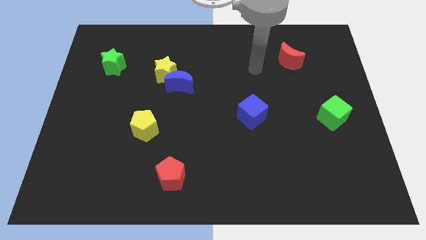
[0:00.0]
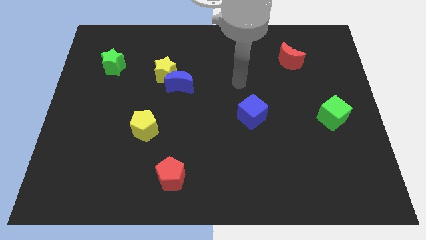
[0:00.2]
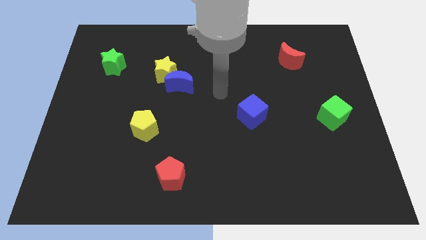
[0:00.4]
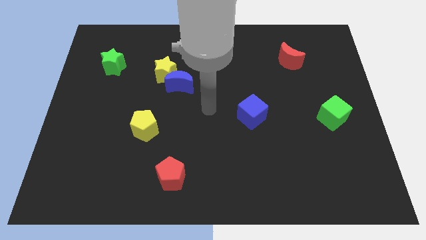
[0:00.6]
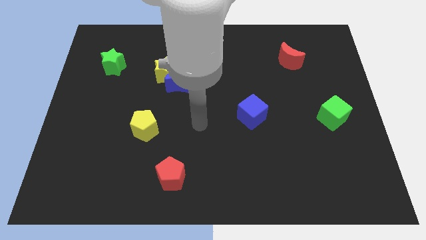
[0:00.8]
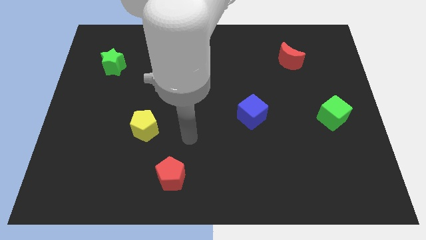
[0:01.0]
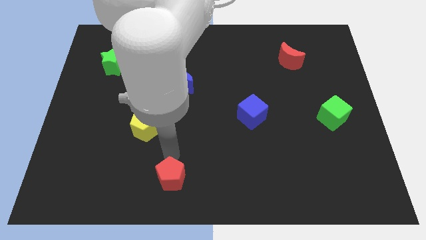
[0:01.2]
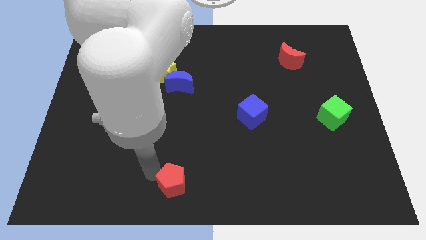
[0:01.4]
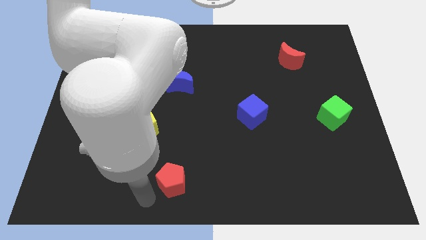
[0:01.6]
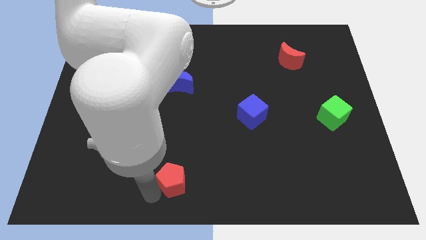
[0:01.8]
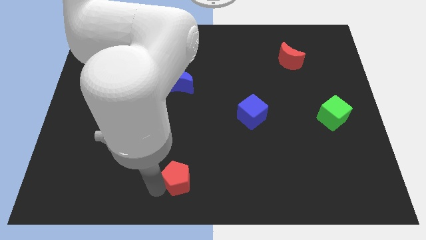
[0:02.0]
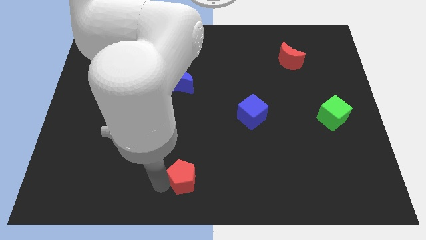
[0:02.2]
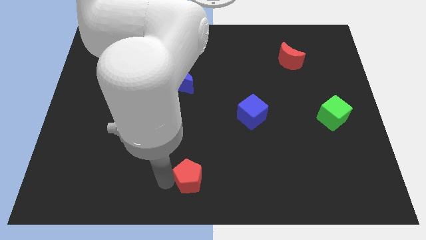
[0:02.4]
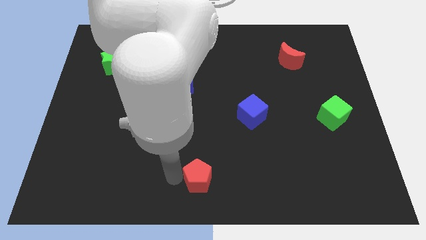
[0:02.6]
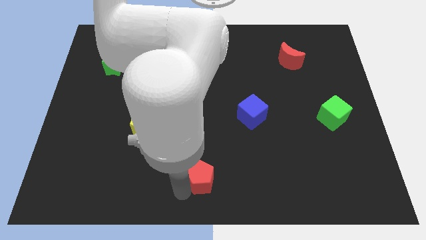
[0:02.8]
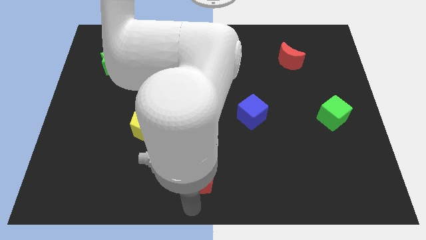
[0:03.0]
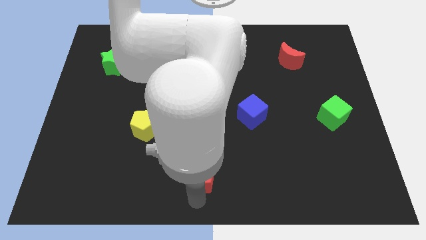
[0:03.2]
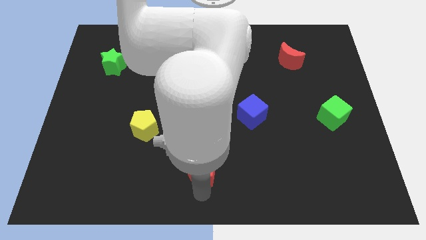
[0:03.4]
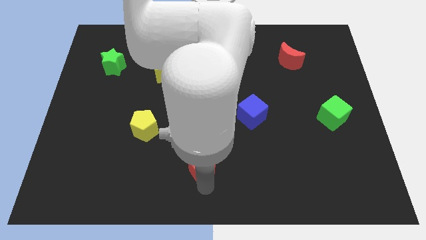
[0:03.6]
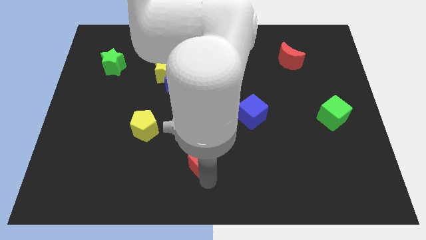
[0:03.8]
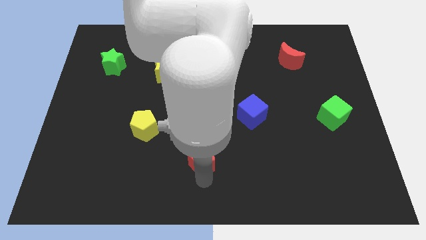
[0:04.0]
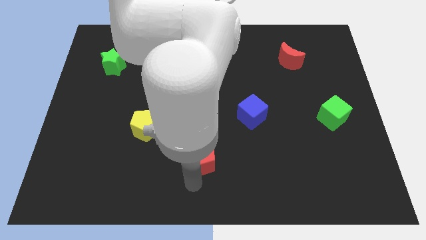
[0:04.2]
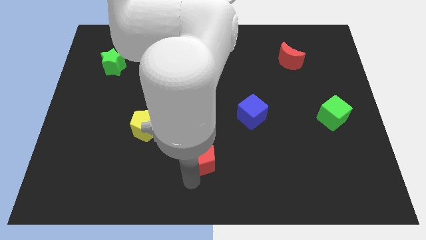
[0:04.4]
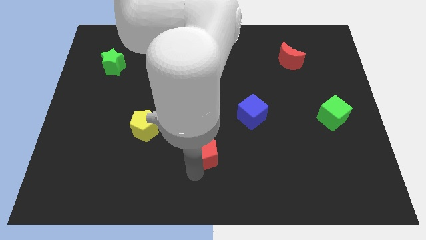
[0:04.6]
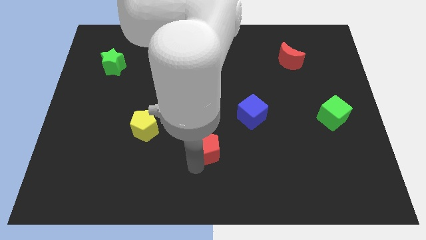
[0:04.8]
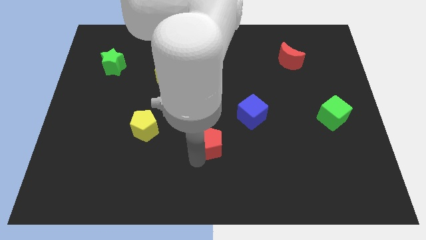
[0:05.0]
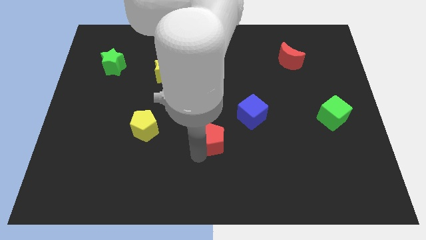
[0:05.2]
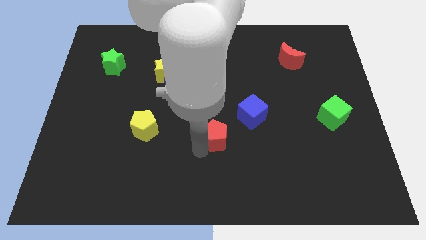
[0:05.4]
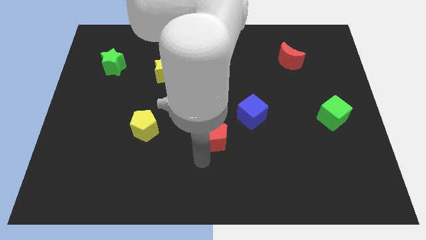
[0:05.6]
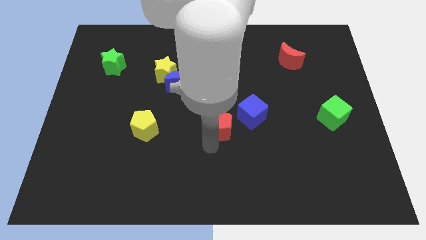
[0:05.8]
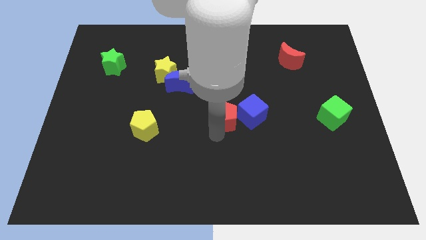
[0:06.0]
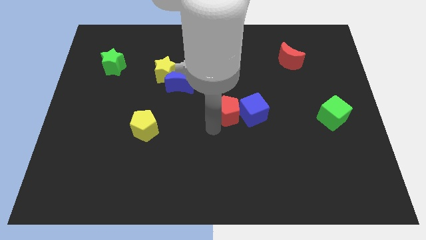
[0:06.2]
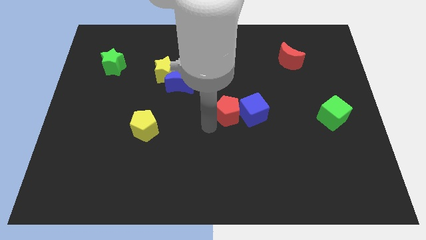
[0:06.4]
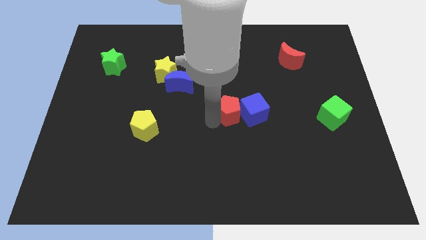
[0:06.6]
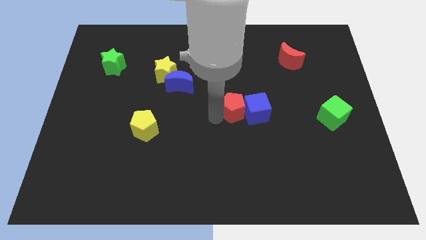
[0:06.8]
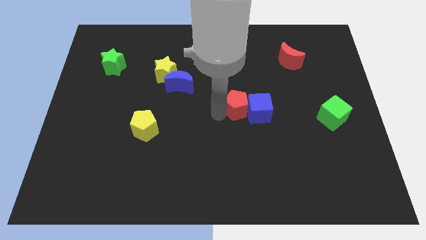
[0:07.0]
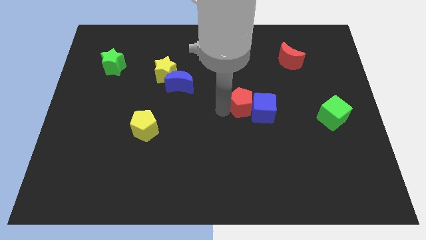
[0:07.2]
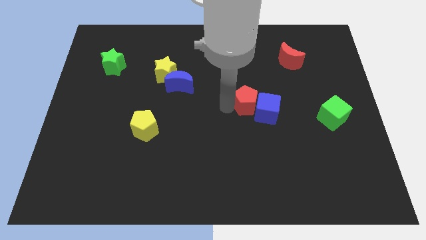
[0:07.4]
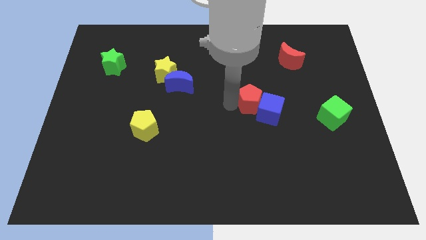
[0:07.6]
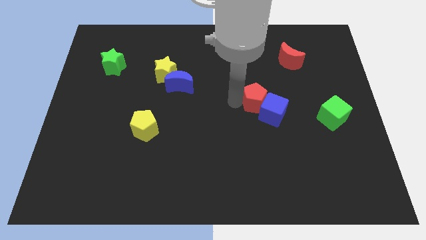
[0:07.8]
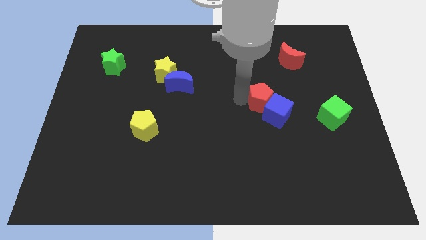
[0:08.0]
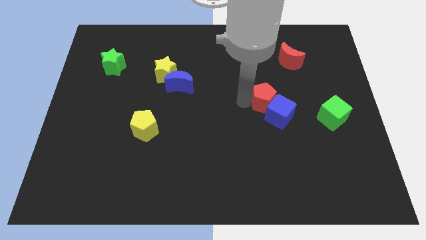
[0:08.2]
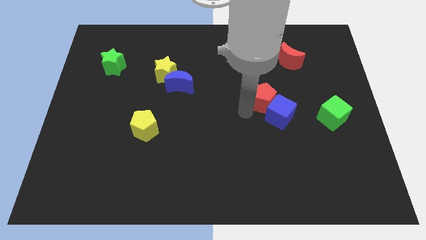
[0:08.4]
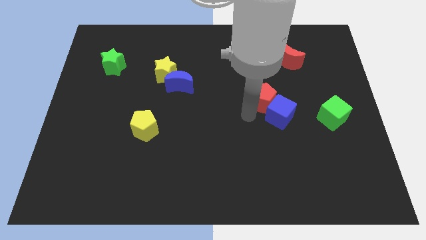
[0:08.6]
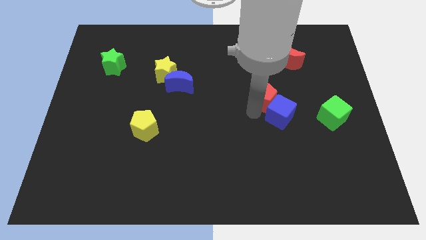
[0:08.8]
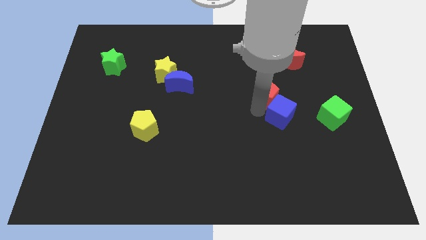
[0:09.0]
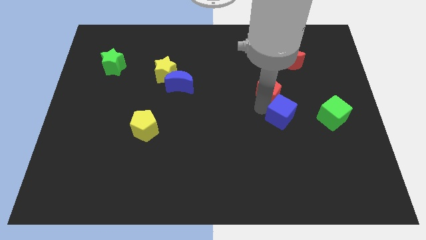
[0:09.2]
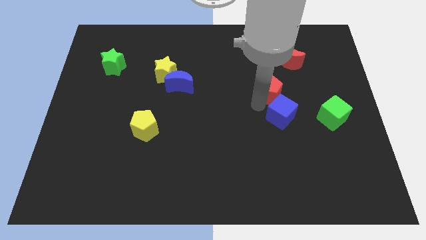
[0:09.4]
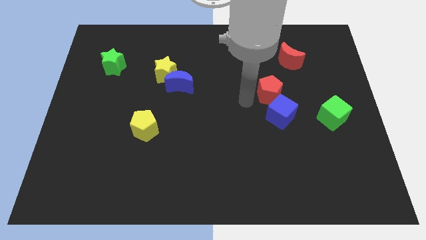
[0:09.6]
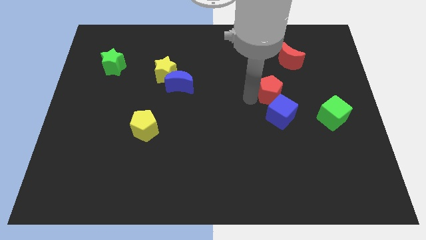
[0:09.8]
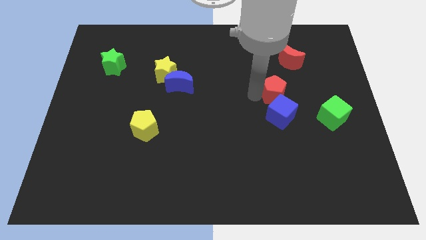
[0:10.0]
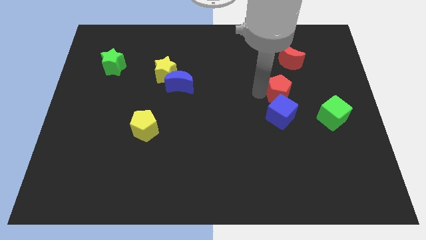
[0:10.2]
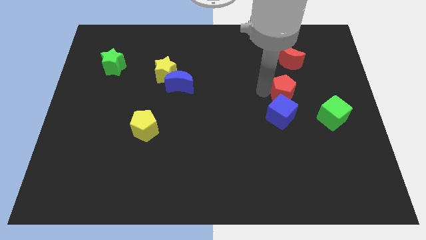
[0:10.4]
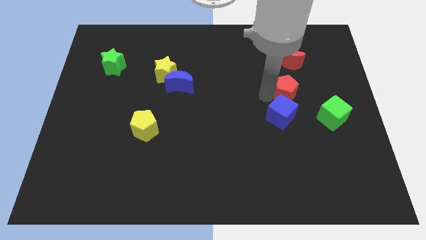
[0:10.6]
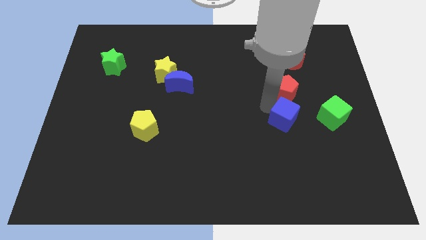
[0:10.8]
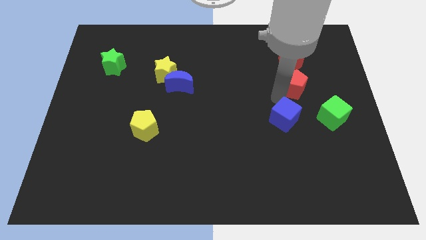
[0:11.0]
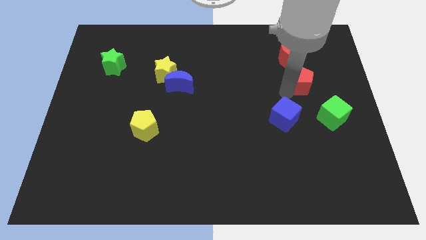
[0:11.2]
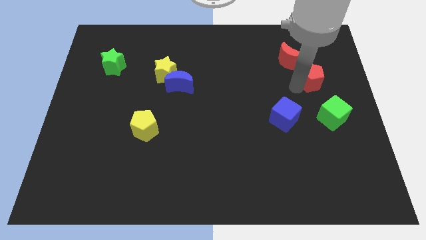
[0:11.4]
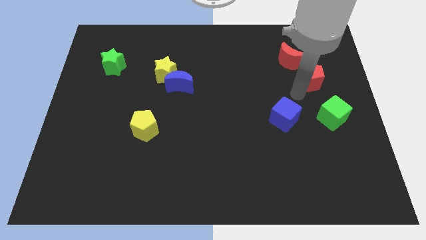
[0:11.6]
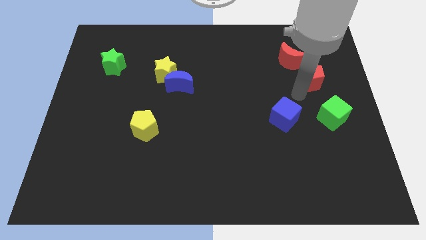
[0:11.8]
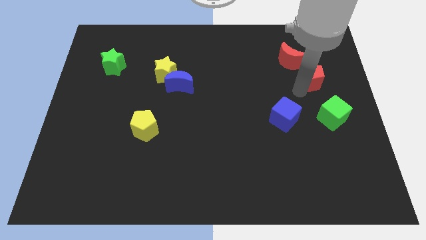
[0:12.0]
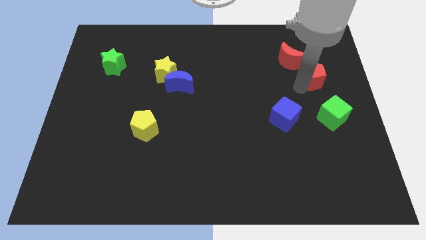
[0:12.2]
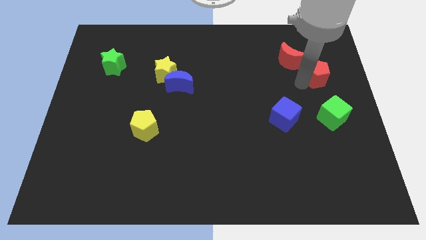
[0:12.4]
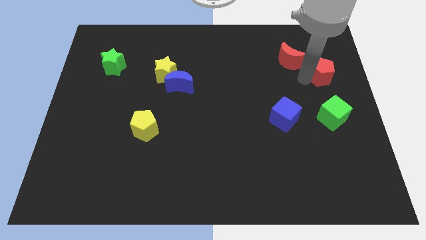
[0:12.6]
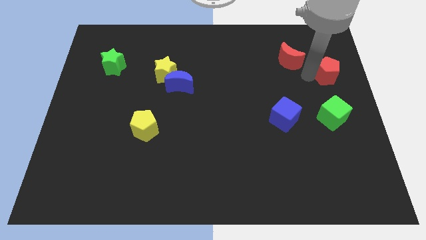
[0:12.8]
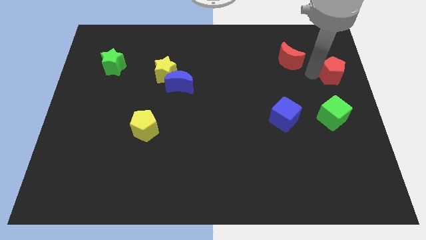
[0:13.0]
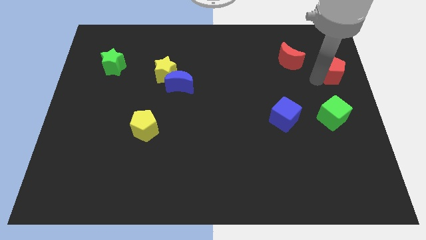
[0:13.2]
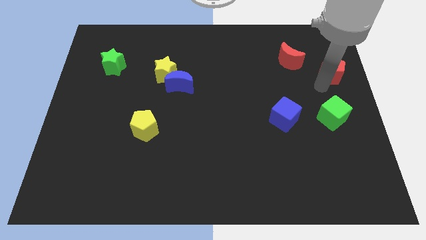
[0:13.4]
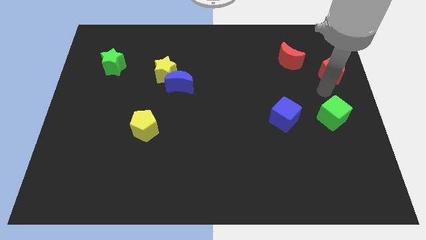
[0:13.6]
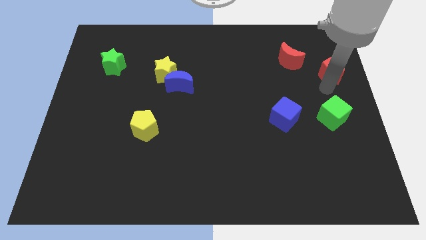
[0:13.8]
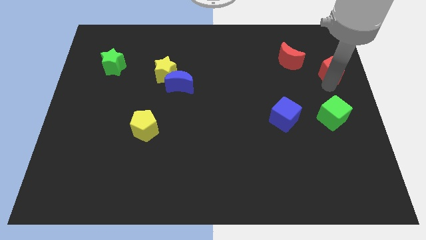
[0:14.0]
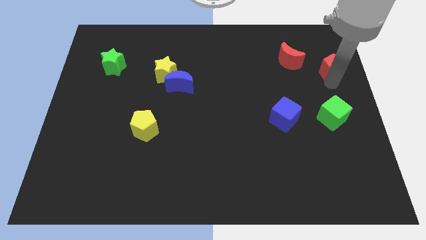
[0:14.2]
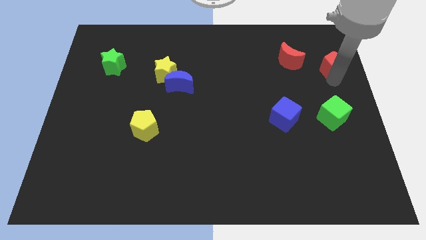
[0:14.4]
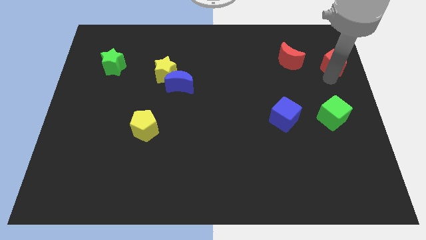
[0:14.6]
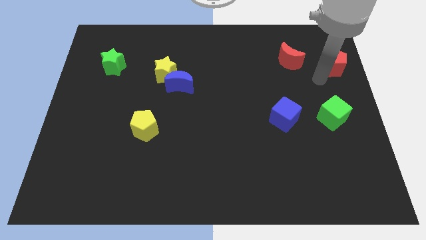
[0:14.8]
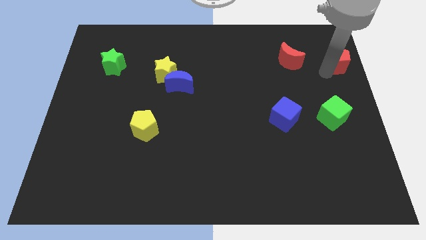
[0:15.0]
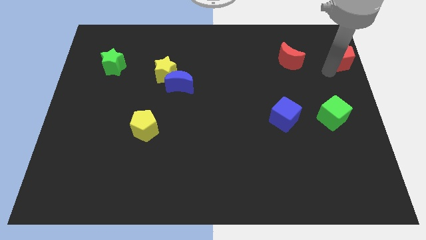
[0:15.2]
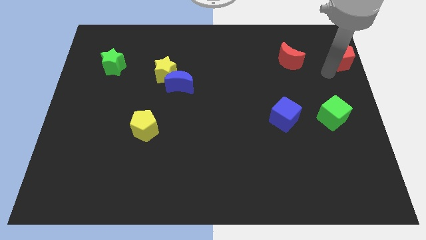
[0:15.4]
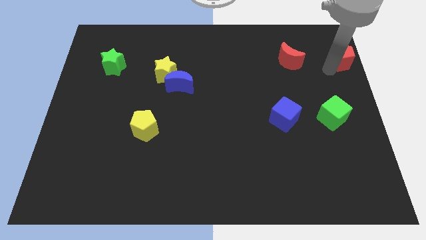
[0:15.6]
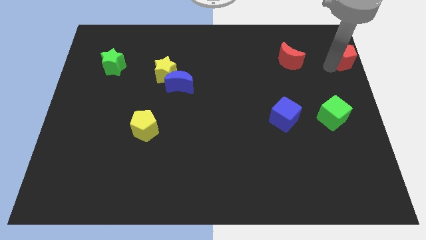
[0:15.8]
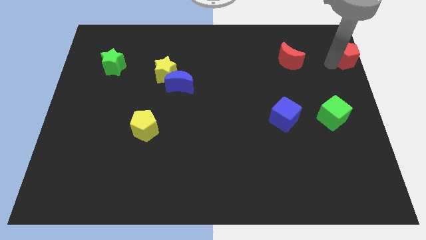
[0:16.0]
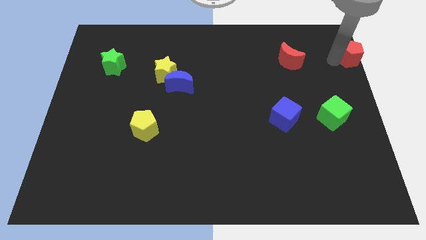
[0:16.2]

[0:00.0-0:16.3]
slide the red pentagon to the top right
